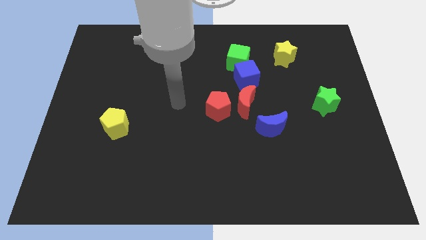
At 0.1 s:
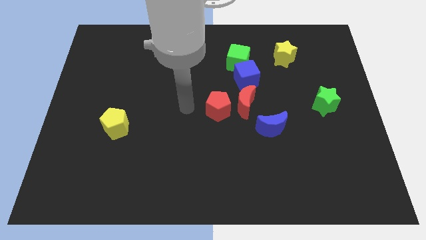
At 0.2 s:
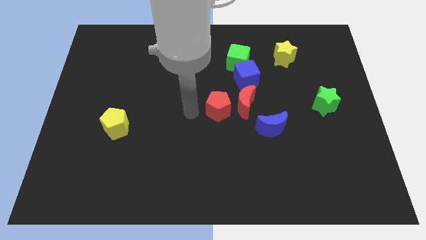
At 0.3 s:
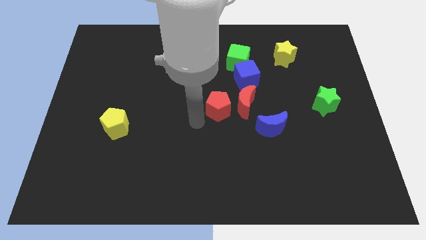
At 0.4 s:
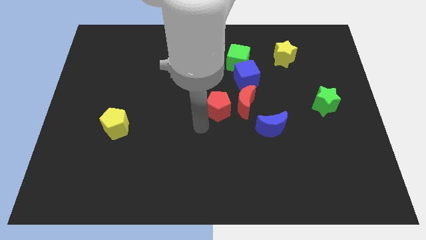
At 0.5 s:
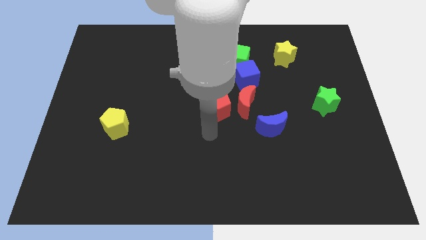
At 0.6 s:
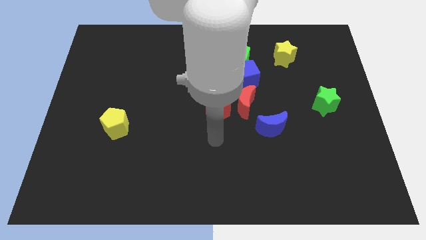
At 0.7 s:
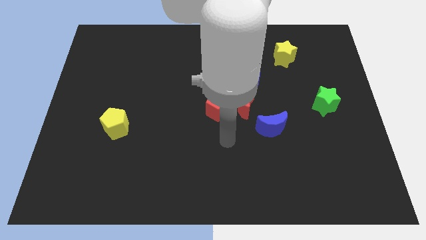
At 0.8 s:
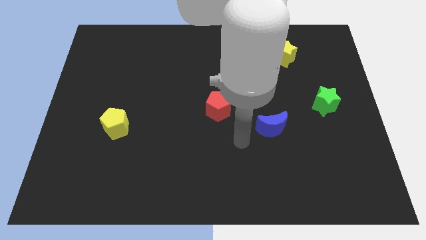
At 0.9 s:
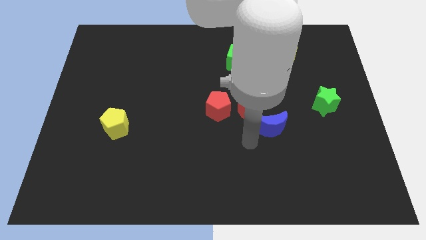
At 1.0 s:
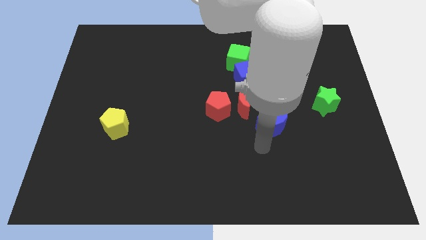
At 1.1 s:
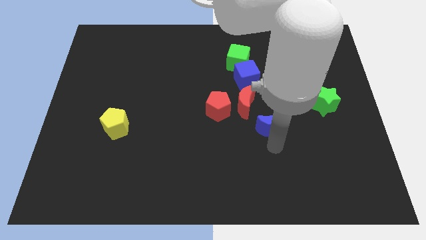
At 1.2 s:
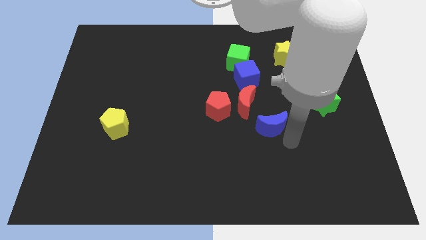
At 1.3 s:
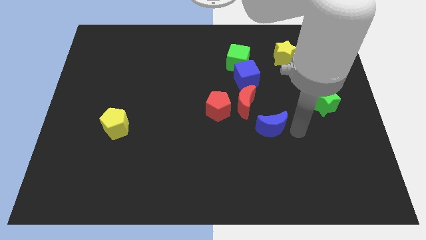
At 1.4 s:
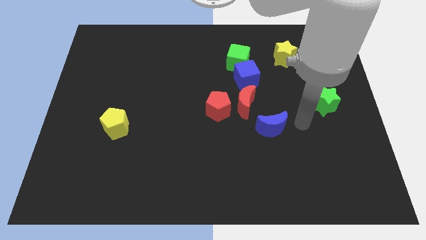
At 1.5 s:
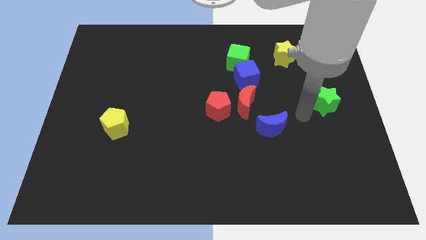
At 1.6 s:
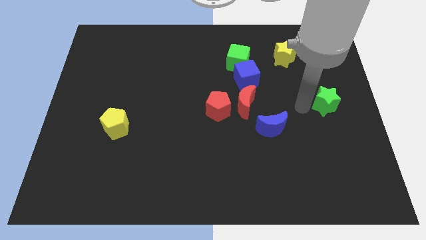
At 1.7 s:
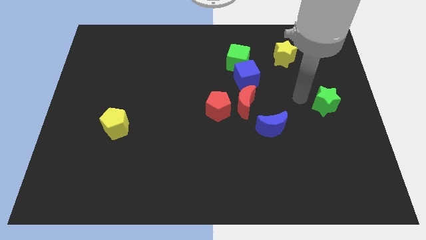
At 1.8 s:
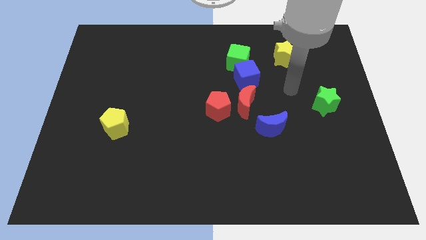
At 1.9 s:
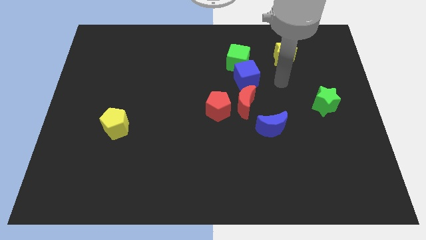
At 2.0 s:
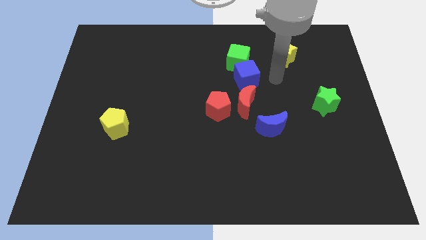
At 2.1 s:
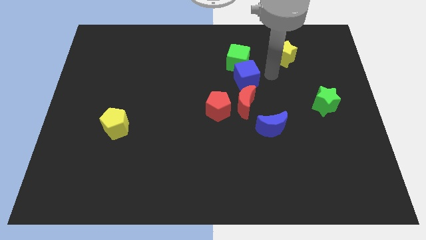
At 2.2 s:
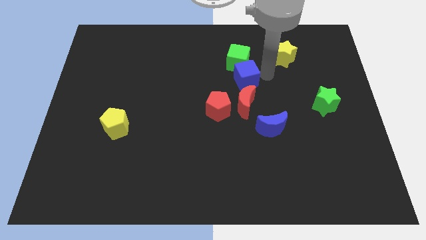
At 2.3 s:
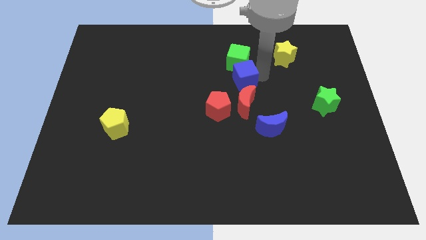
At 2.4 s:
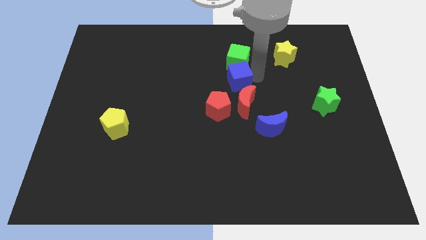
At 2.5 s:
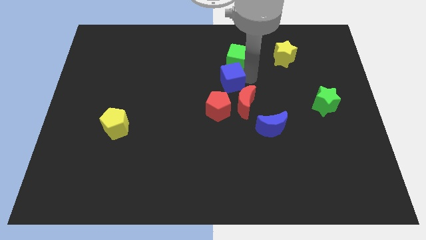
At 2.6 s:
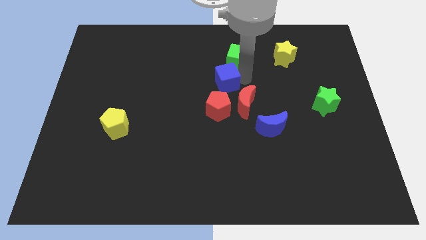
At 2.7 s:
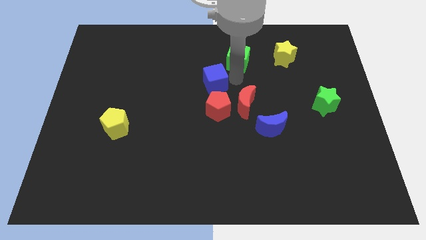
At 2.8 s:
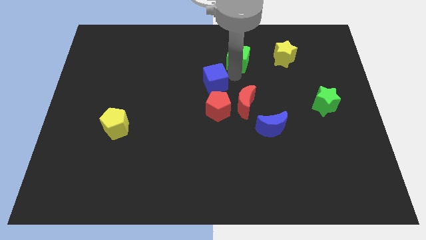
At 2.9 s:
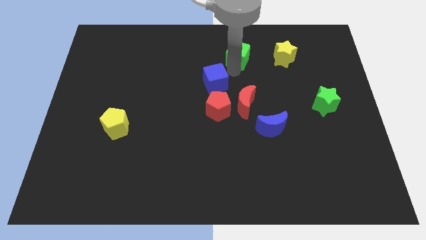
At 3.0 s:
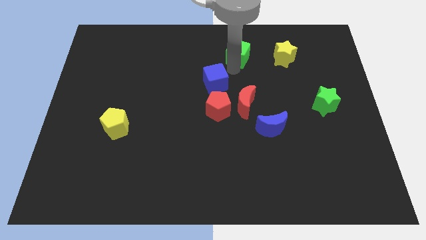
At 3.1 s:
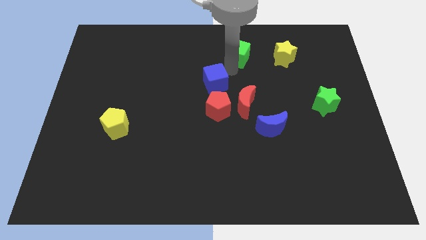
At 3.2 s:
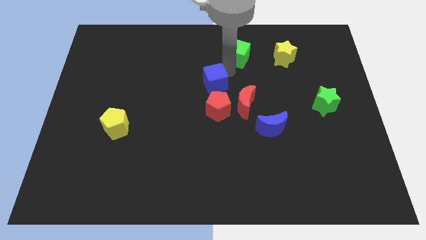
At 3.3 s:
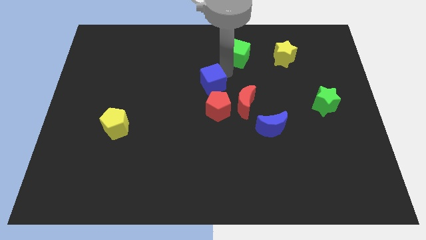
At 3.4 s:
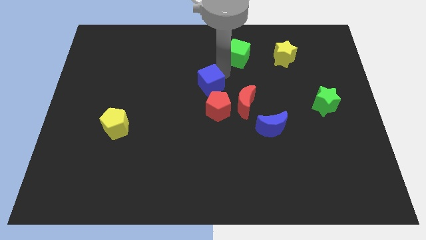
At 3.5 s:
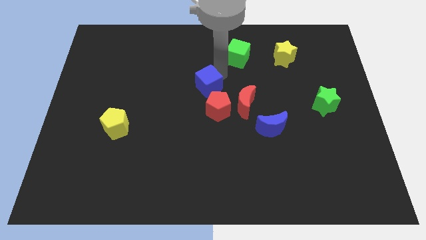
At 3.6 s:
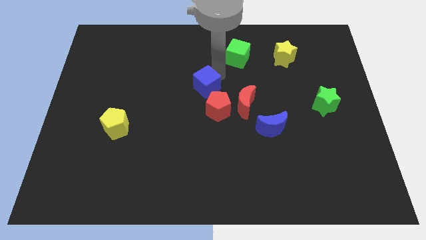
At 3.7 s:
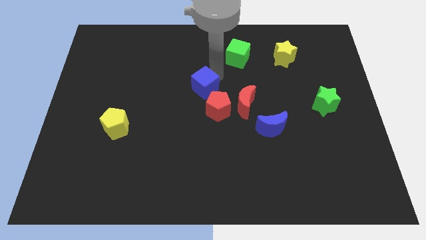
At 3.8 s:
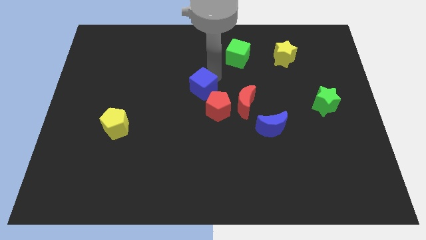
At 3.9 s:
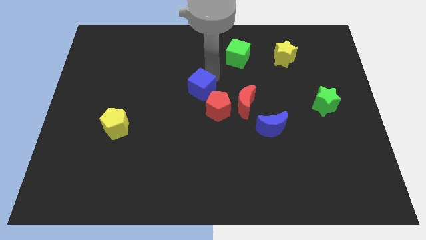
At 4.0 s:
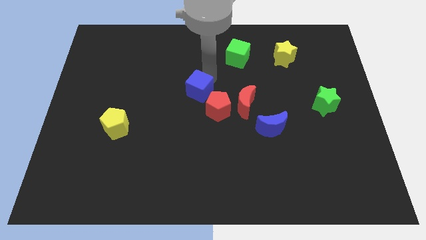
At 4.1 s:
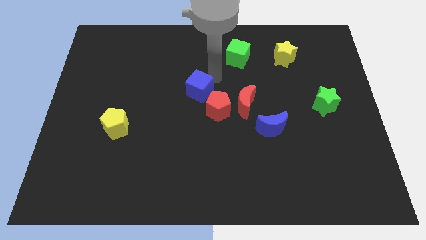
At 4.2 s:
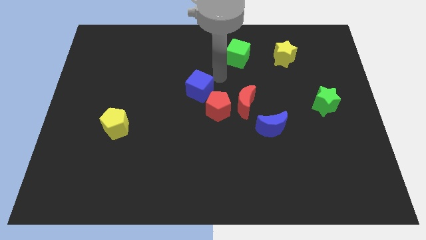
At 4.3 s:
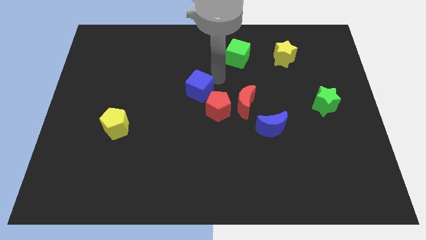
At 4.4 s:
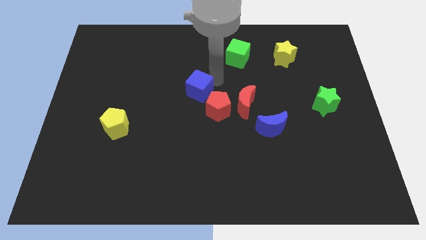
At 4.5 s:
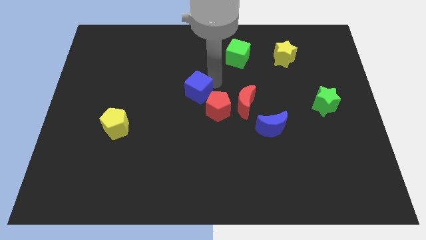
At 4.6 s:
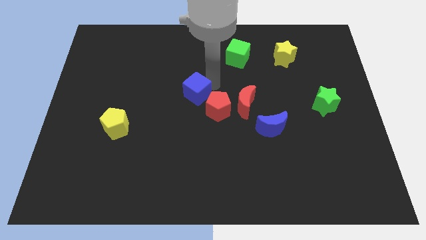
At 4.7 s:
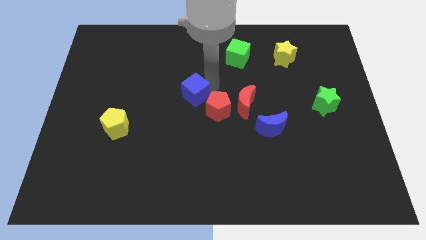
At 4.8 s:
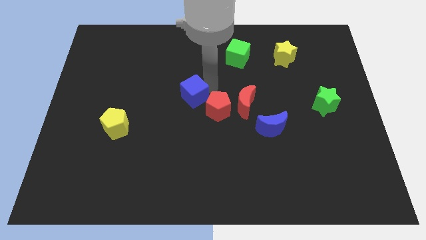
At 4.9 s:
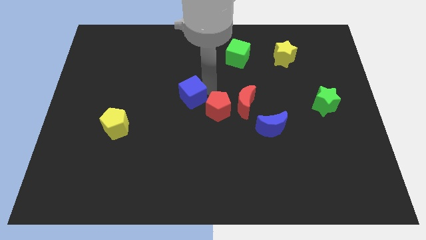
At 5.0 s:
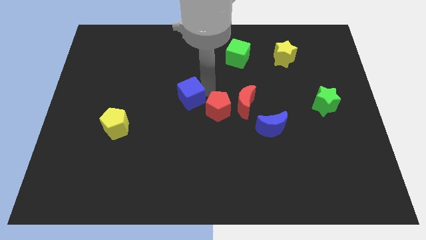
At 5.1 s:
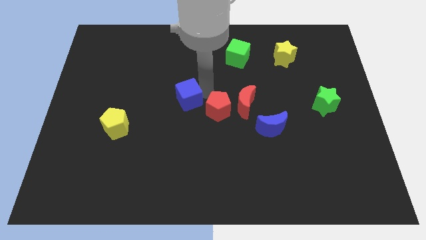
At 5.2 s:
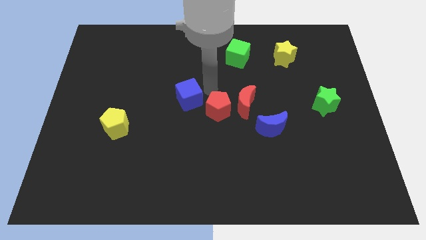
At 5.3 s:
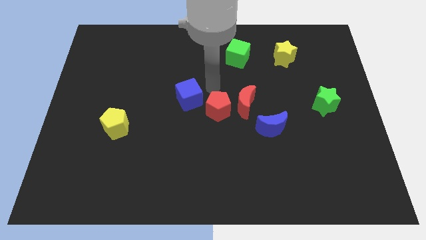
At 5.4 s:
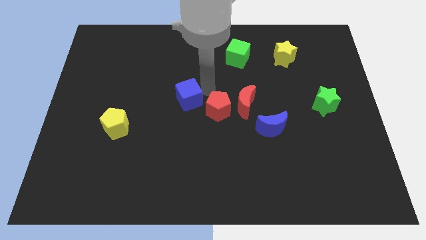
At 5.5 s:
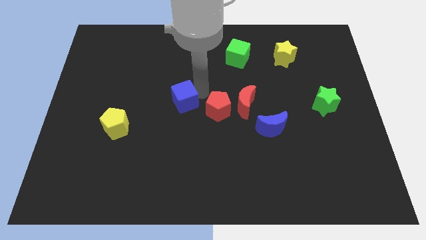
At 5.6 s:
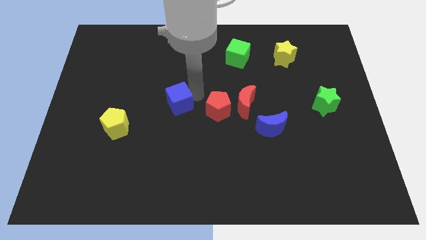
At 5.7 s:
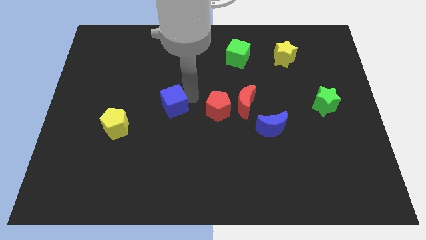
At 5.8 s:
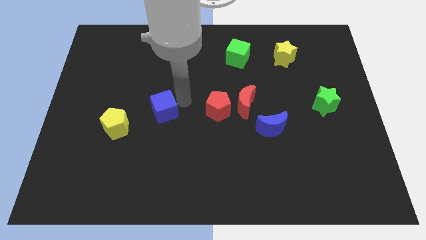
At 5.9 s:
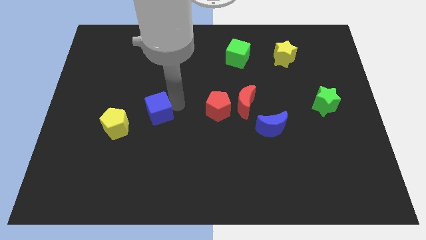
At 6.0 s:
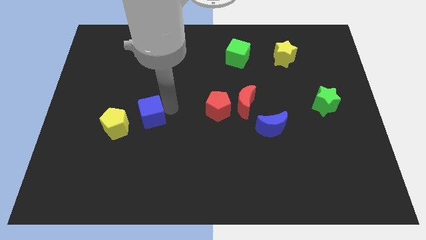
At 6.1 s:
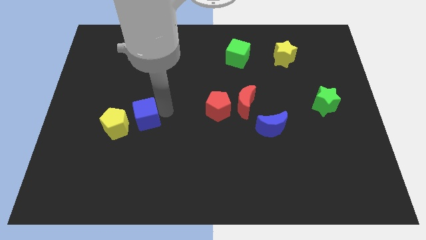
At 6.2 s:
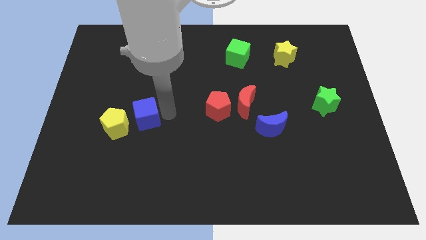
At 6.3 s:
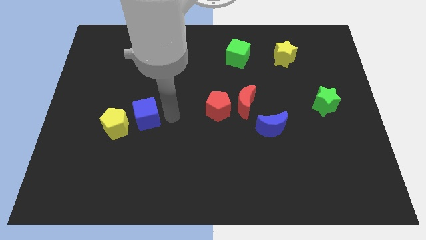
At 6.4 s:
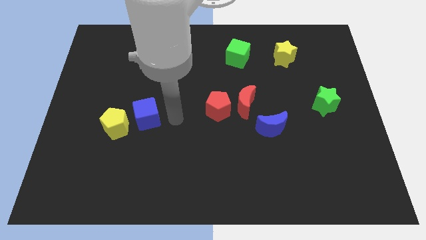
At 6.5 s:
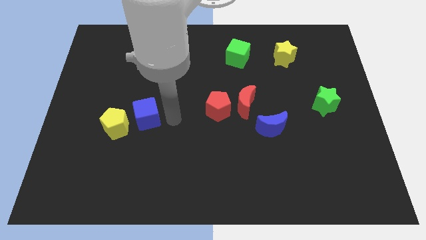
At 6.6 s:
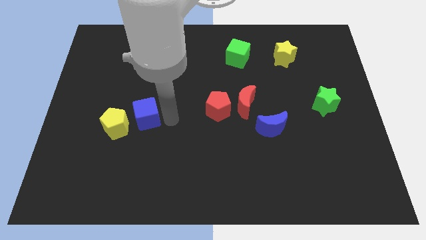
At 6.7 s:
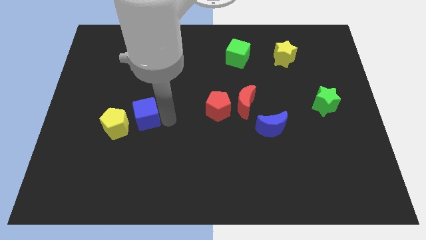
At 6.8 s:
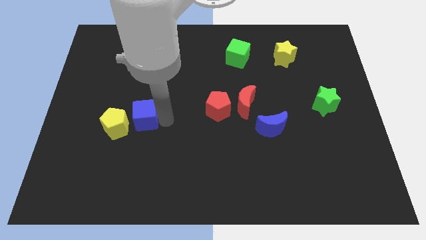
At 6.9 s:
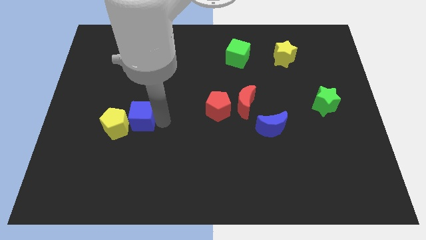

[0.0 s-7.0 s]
put the blue cube close to the yellow pentagon
